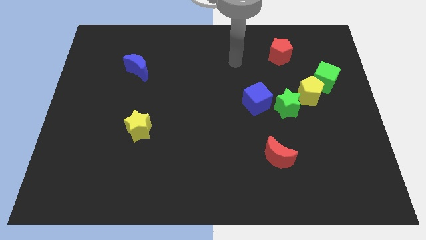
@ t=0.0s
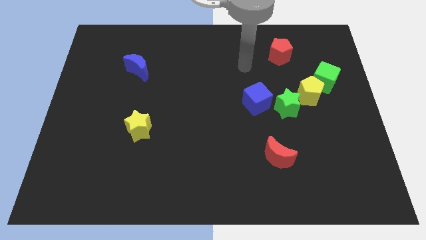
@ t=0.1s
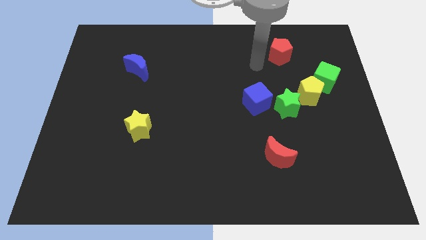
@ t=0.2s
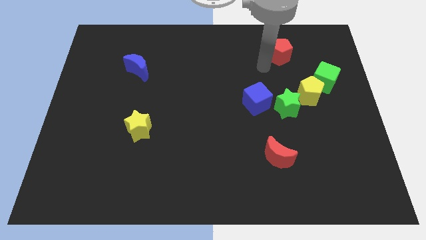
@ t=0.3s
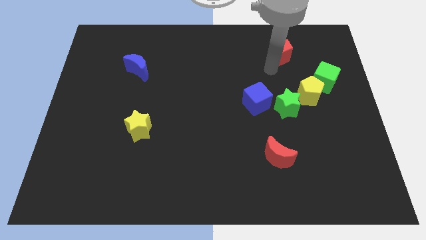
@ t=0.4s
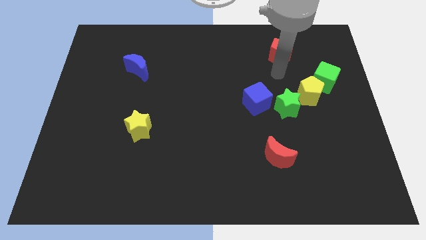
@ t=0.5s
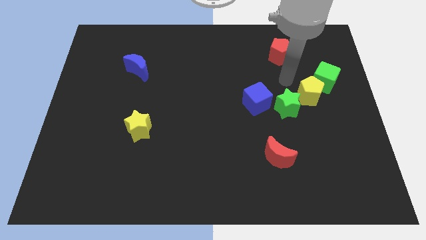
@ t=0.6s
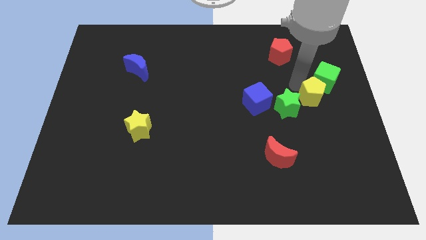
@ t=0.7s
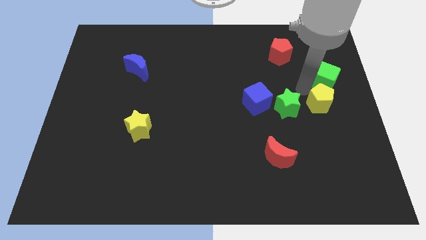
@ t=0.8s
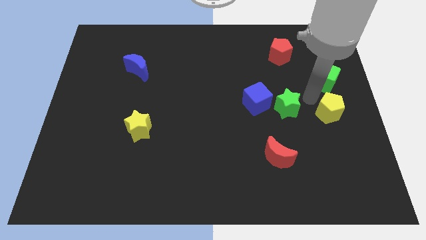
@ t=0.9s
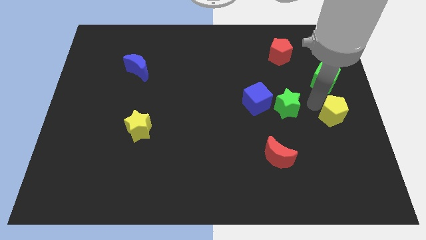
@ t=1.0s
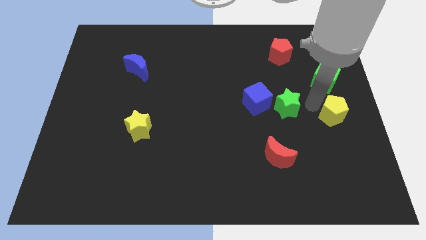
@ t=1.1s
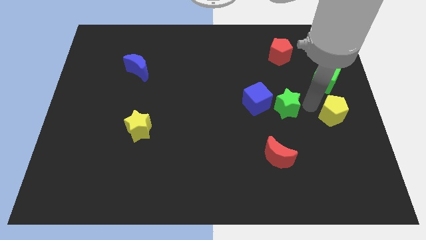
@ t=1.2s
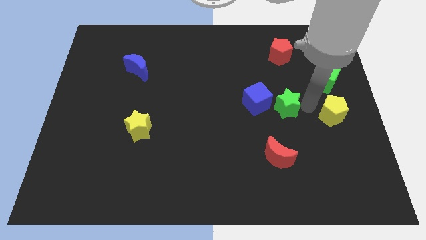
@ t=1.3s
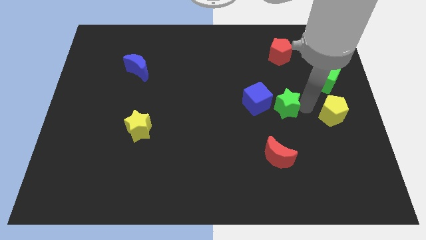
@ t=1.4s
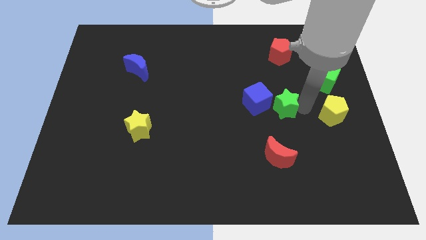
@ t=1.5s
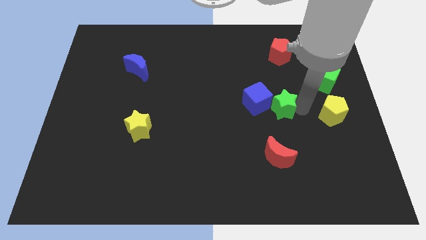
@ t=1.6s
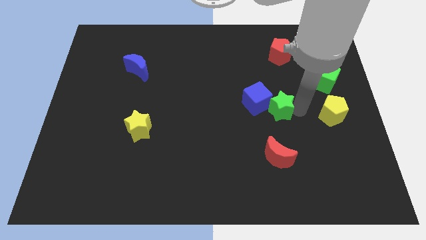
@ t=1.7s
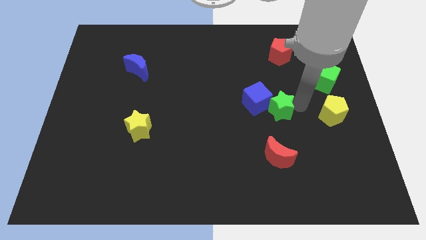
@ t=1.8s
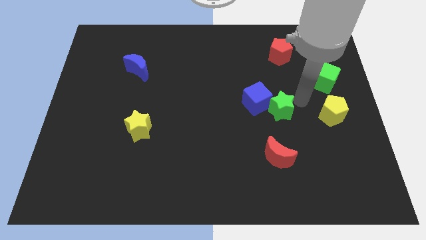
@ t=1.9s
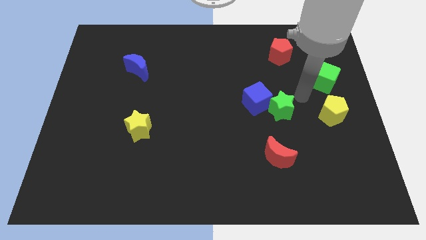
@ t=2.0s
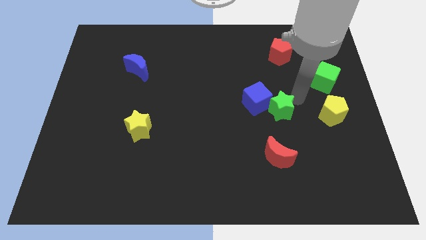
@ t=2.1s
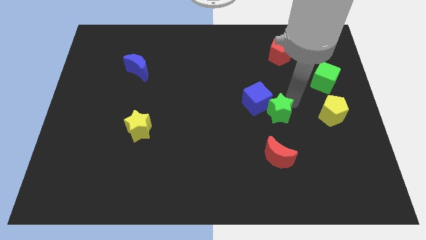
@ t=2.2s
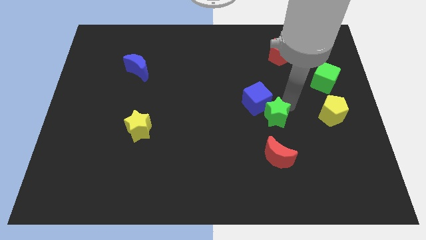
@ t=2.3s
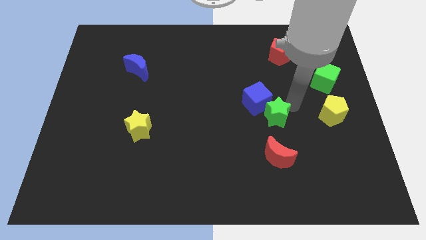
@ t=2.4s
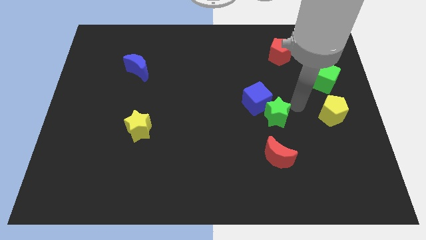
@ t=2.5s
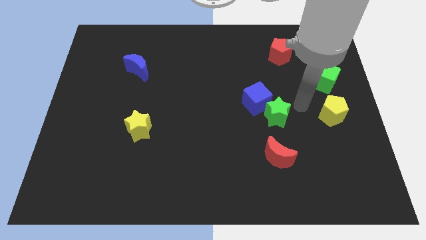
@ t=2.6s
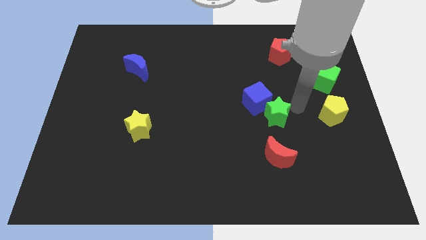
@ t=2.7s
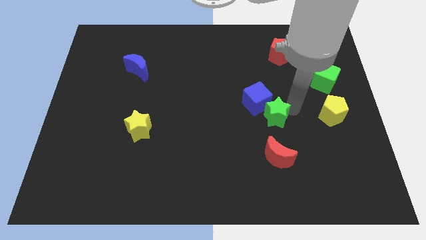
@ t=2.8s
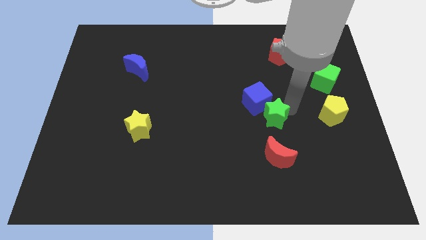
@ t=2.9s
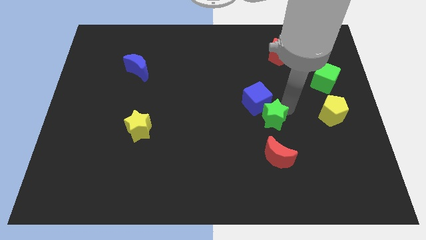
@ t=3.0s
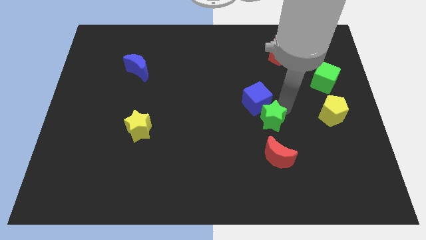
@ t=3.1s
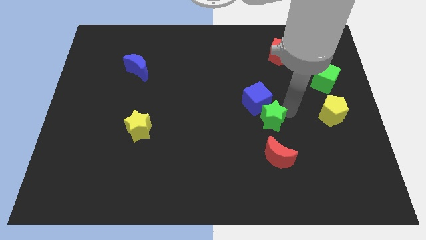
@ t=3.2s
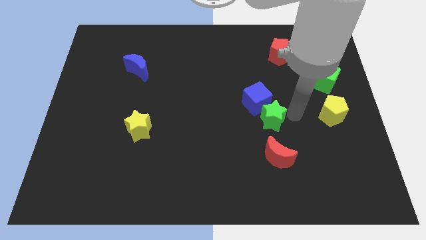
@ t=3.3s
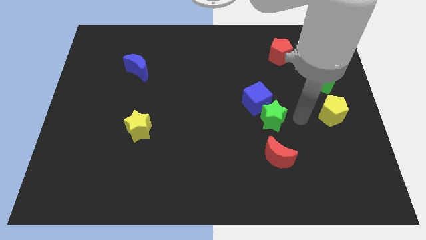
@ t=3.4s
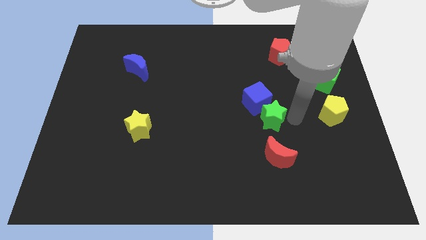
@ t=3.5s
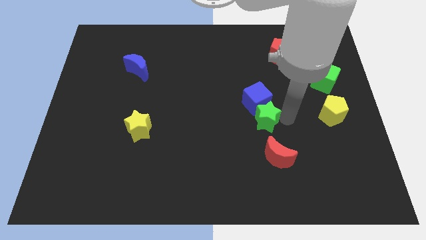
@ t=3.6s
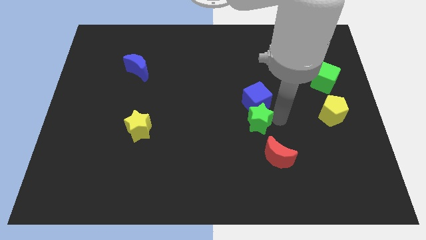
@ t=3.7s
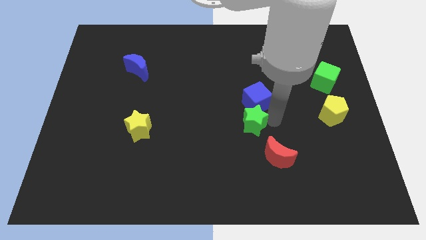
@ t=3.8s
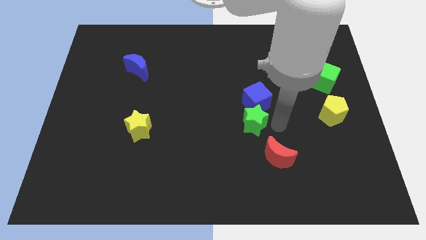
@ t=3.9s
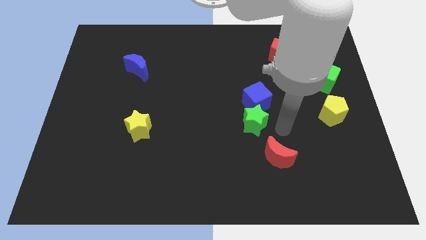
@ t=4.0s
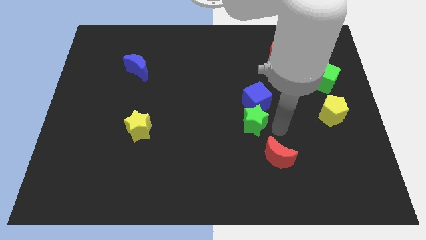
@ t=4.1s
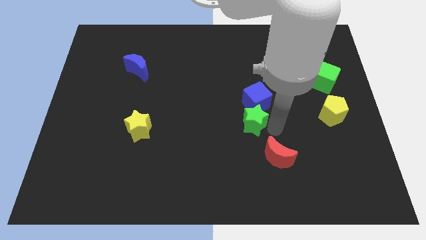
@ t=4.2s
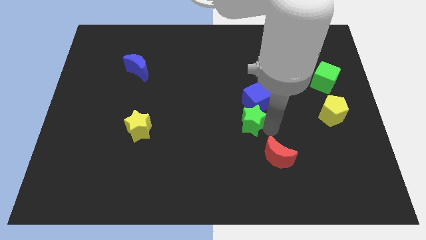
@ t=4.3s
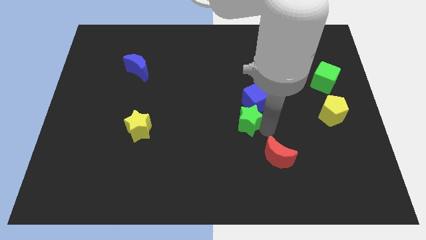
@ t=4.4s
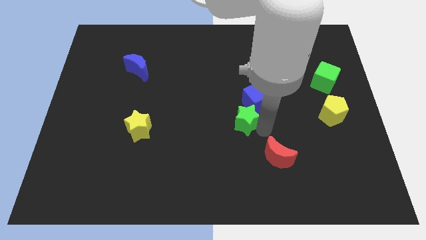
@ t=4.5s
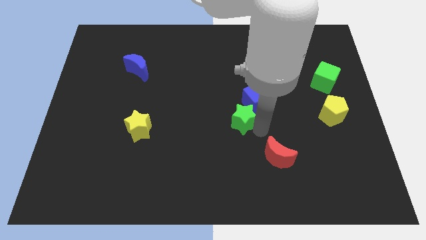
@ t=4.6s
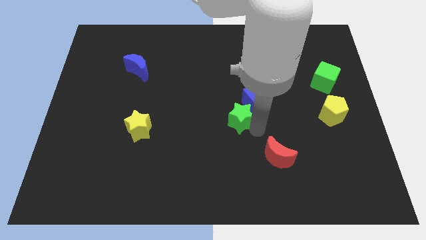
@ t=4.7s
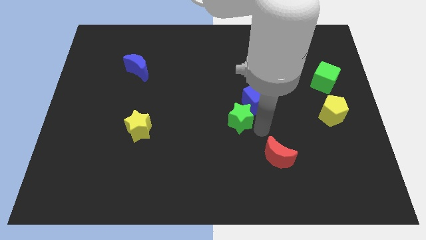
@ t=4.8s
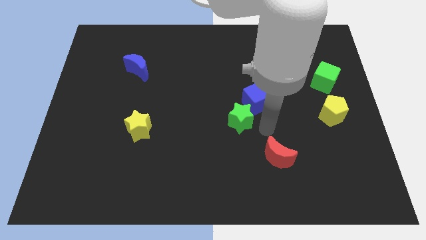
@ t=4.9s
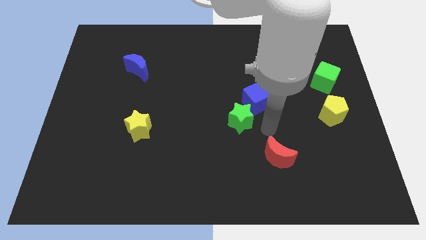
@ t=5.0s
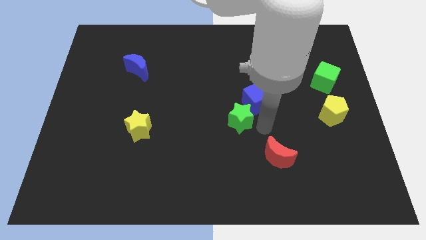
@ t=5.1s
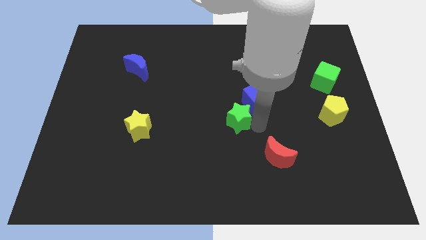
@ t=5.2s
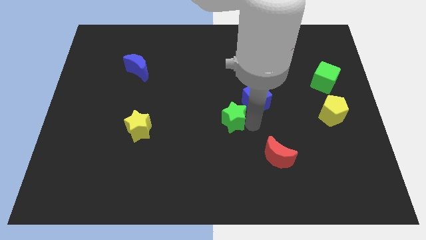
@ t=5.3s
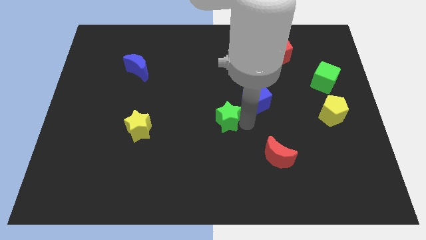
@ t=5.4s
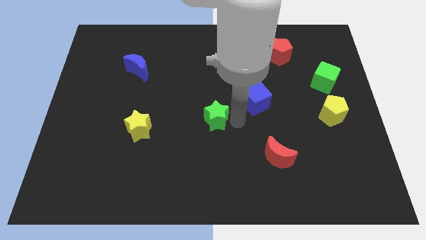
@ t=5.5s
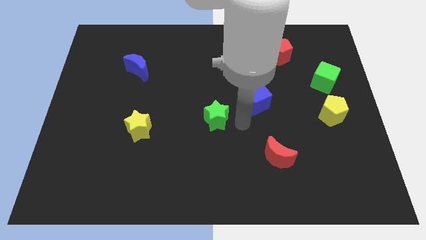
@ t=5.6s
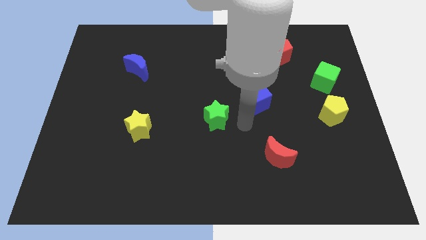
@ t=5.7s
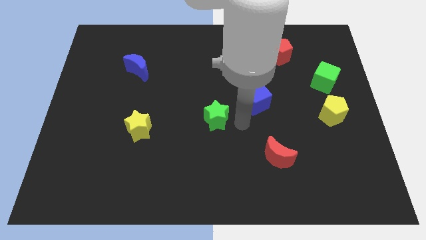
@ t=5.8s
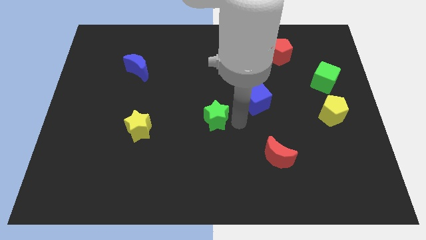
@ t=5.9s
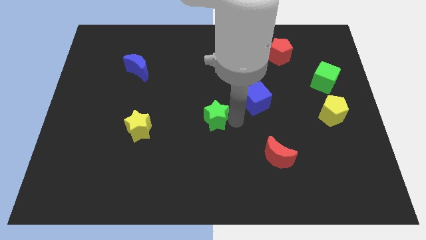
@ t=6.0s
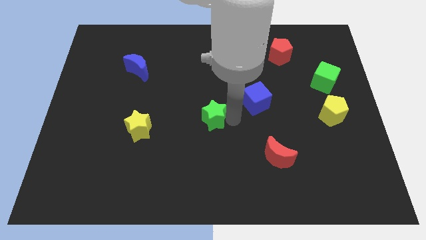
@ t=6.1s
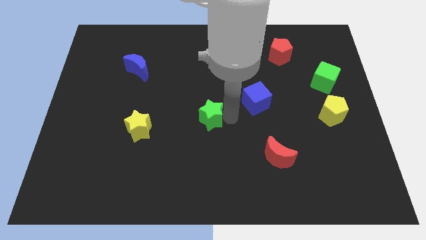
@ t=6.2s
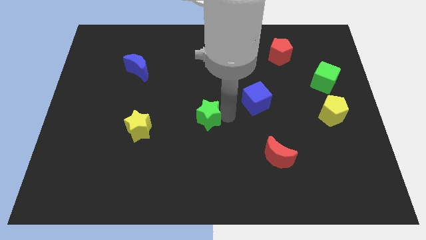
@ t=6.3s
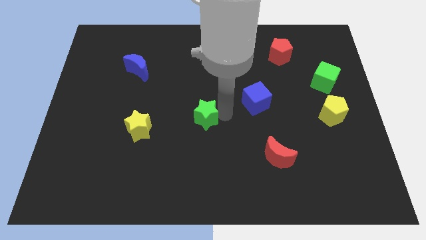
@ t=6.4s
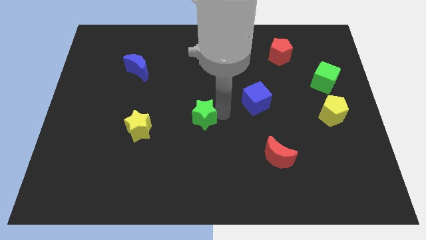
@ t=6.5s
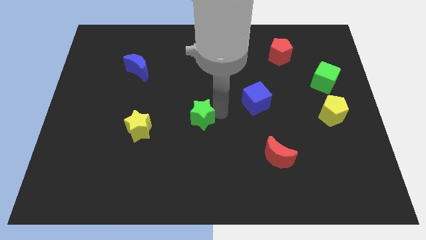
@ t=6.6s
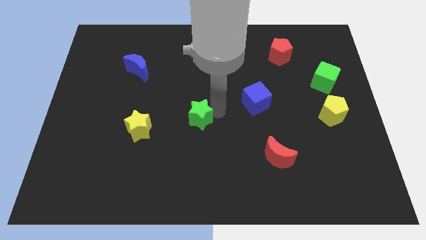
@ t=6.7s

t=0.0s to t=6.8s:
slide the green star left

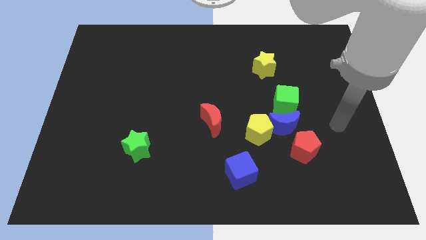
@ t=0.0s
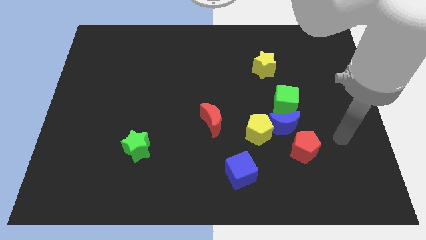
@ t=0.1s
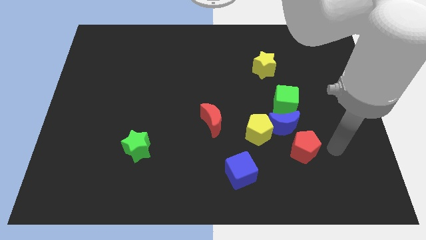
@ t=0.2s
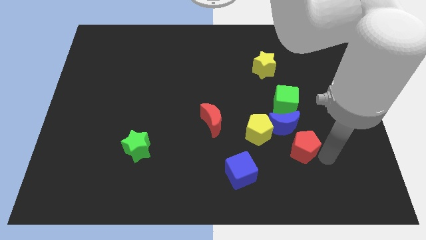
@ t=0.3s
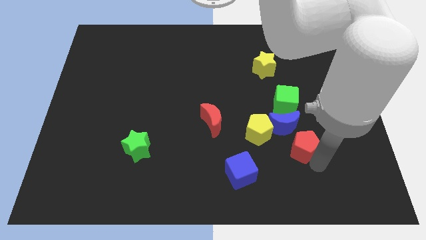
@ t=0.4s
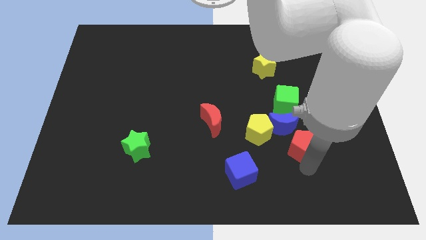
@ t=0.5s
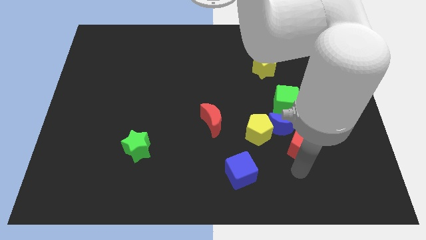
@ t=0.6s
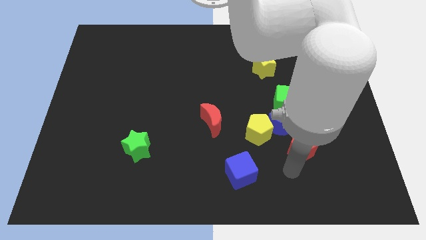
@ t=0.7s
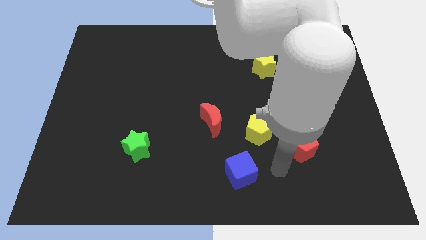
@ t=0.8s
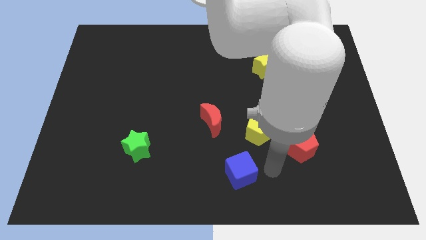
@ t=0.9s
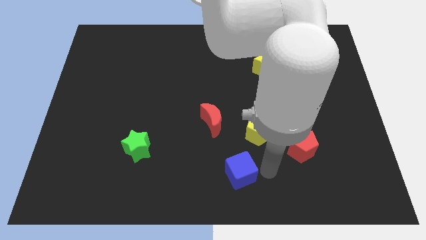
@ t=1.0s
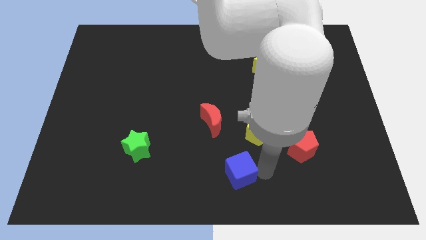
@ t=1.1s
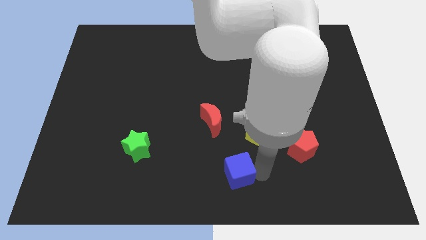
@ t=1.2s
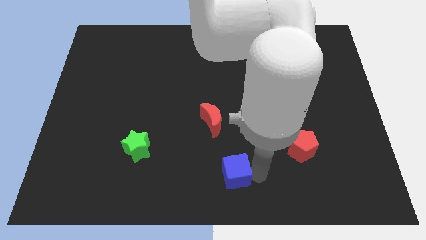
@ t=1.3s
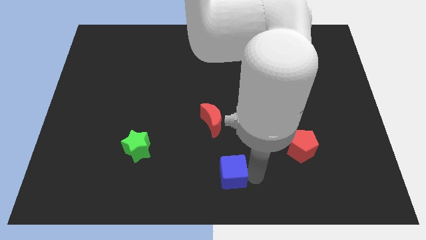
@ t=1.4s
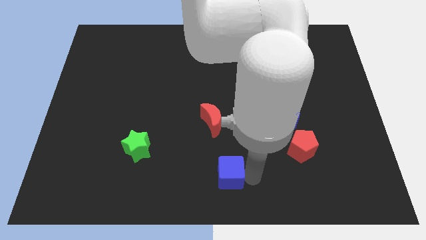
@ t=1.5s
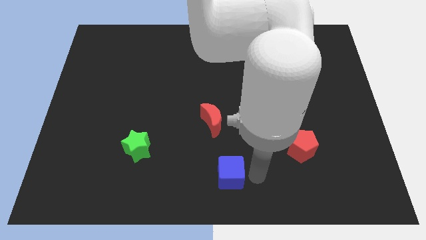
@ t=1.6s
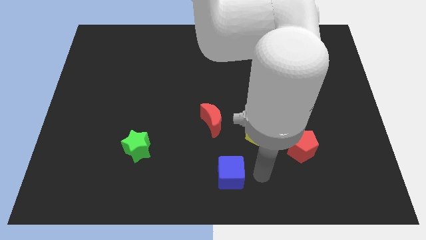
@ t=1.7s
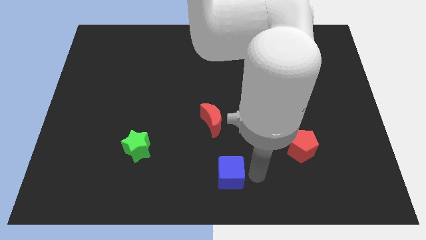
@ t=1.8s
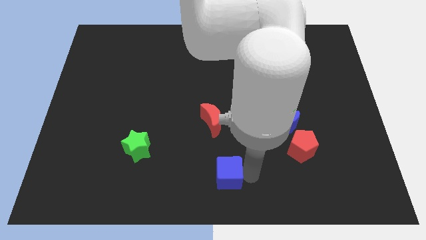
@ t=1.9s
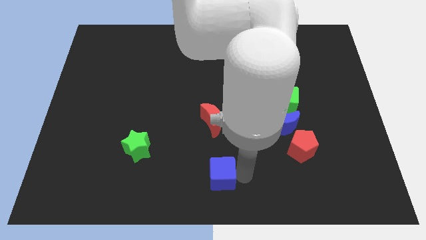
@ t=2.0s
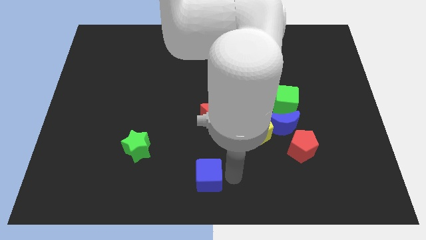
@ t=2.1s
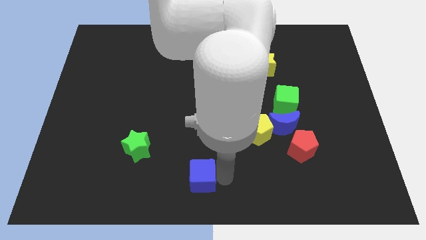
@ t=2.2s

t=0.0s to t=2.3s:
move the blue cube a little bit left
